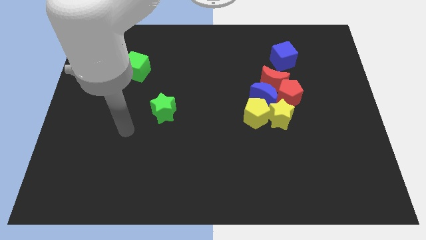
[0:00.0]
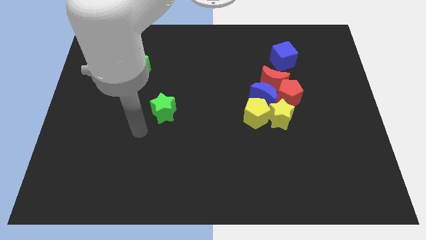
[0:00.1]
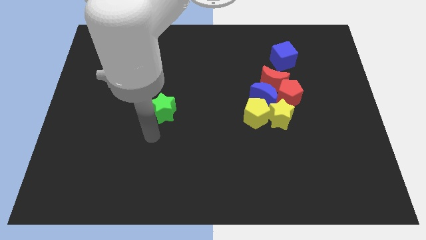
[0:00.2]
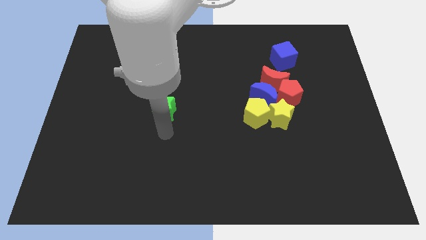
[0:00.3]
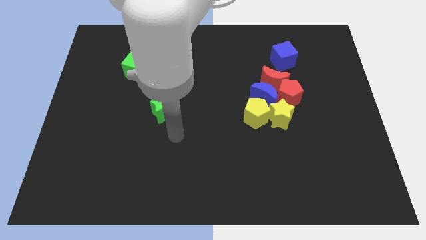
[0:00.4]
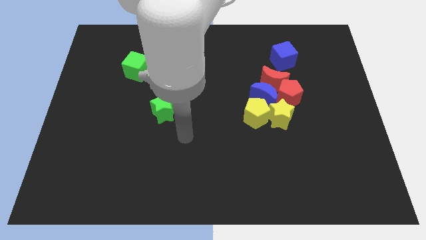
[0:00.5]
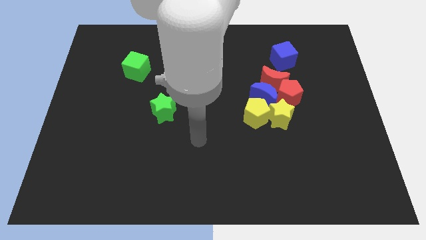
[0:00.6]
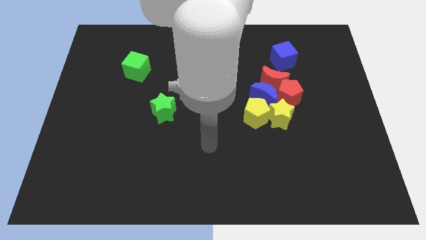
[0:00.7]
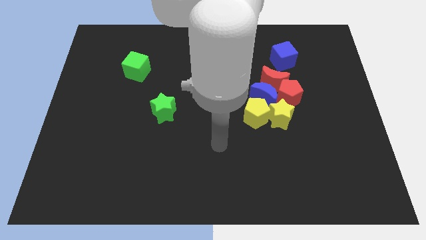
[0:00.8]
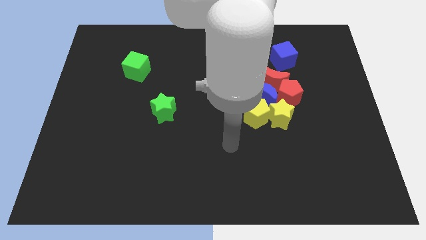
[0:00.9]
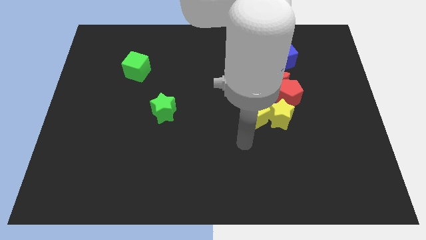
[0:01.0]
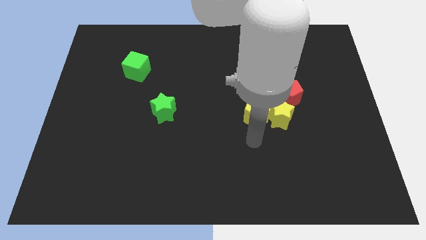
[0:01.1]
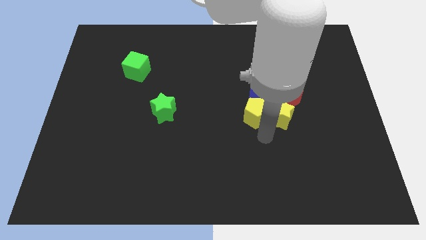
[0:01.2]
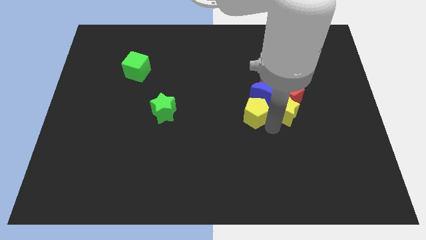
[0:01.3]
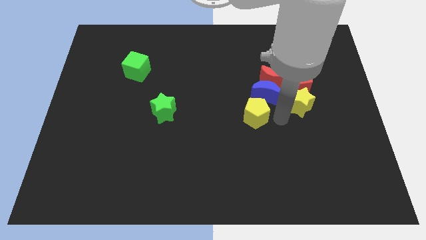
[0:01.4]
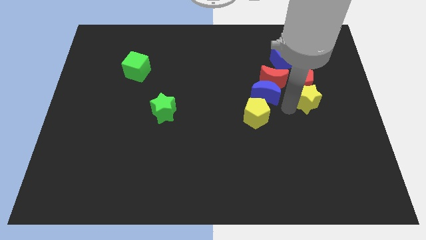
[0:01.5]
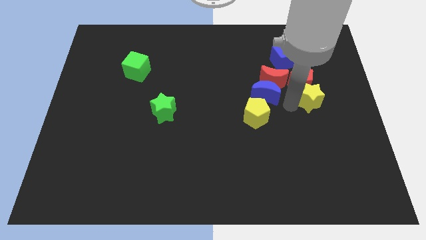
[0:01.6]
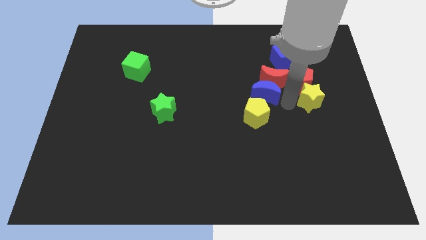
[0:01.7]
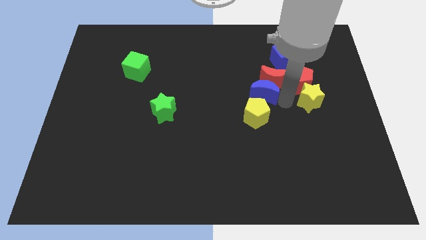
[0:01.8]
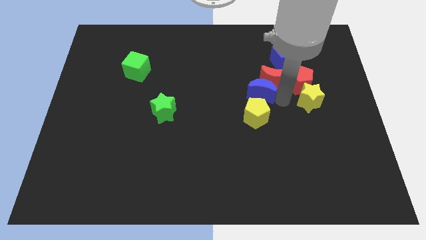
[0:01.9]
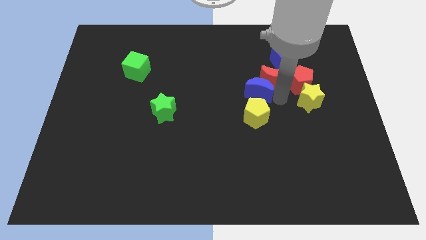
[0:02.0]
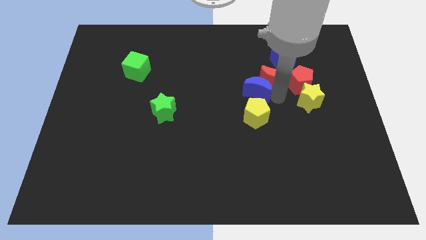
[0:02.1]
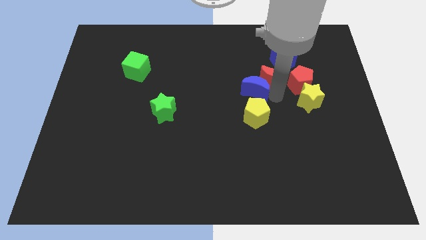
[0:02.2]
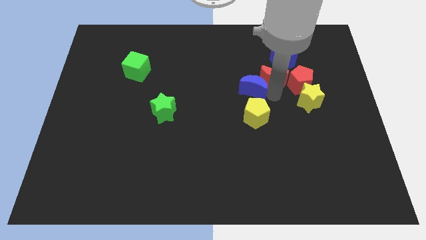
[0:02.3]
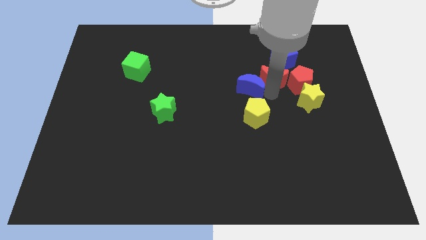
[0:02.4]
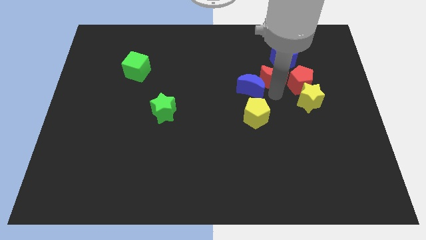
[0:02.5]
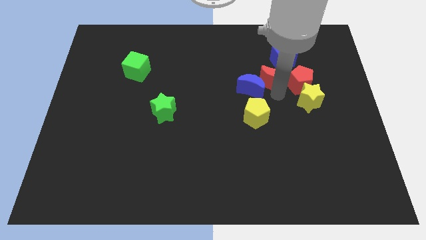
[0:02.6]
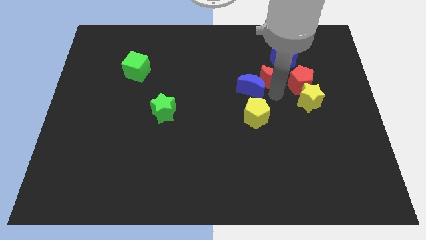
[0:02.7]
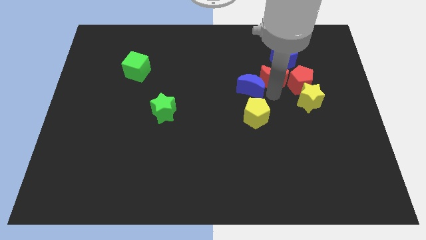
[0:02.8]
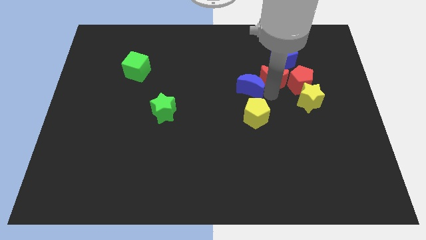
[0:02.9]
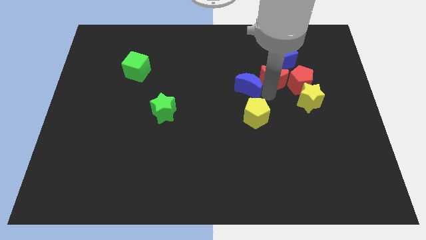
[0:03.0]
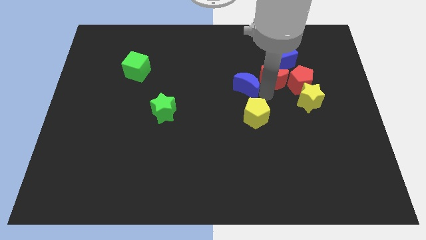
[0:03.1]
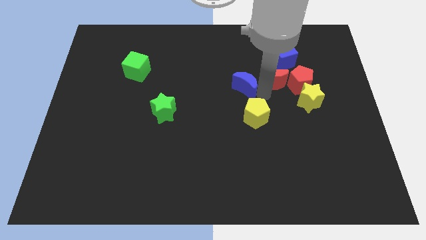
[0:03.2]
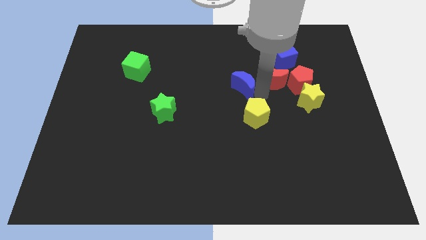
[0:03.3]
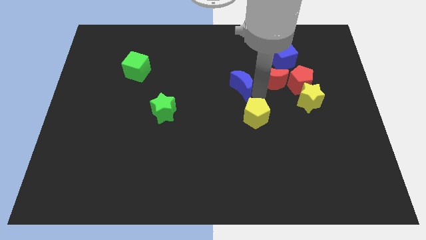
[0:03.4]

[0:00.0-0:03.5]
separate the blue moon from the clump

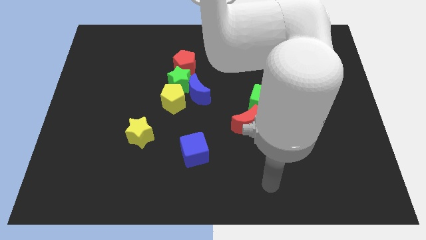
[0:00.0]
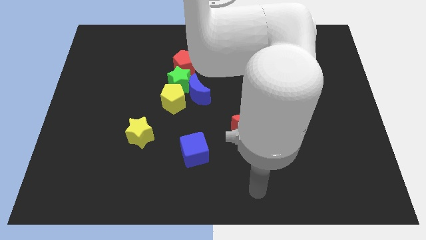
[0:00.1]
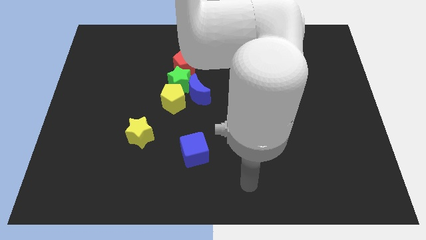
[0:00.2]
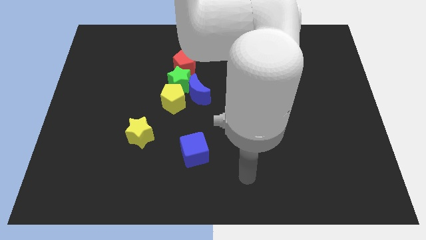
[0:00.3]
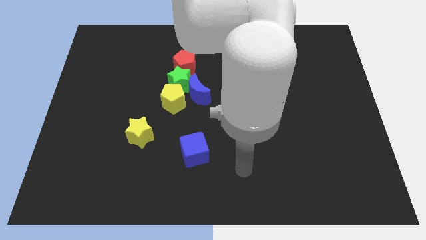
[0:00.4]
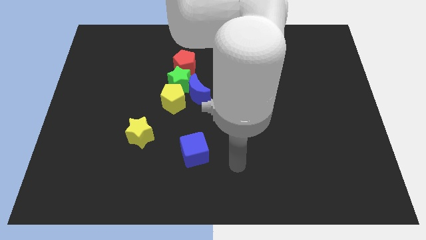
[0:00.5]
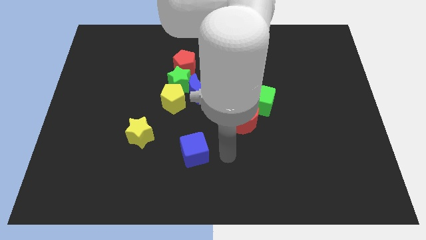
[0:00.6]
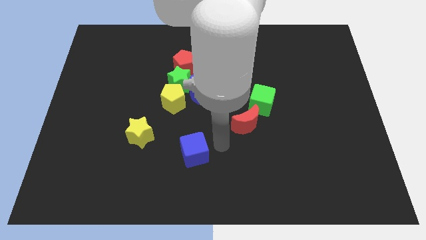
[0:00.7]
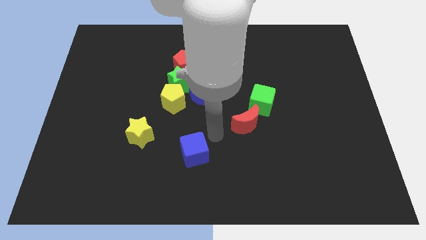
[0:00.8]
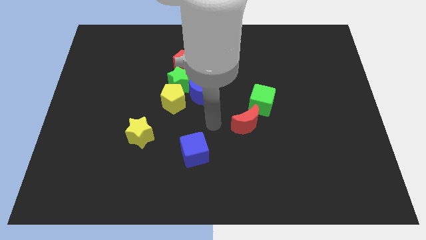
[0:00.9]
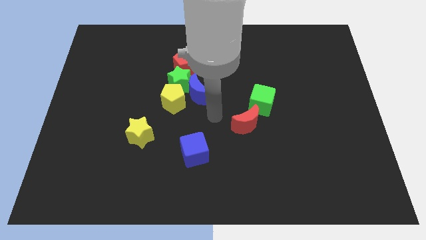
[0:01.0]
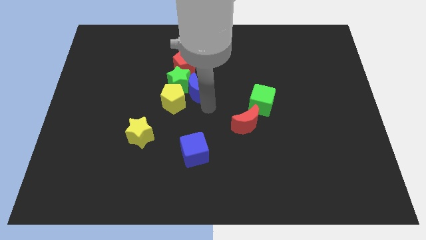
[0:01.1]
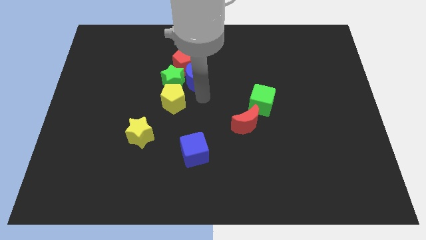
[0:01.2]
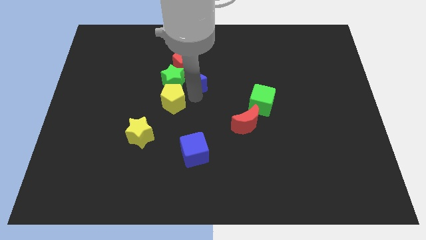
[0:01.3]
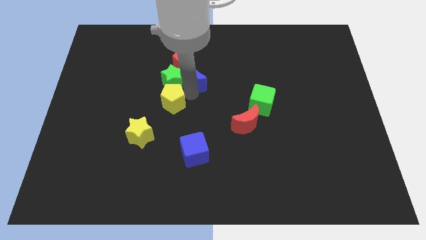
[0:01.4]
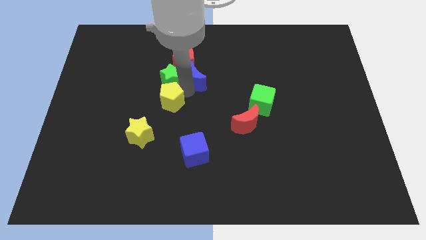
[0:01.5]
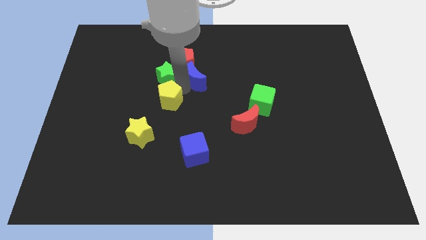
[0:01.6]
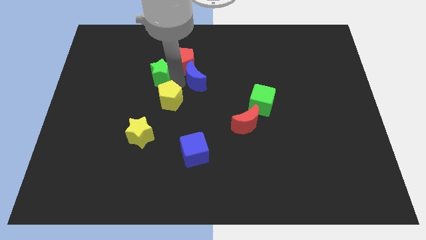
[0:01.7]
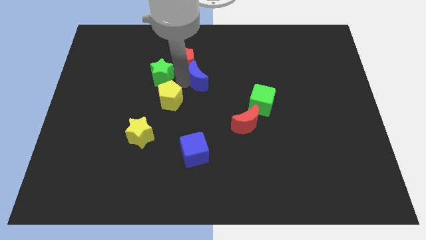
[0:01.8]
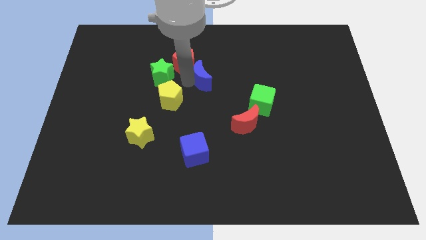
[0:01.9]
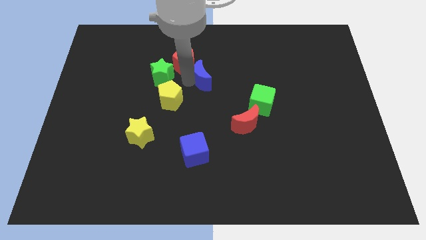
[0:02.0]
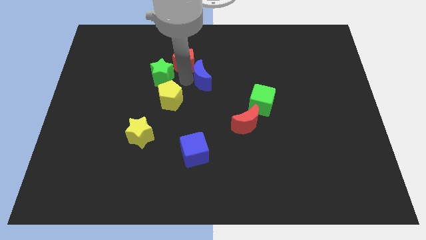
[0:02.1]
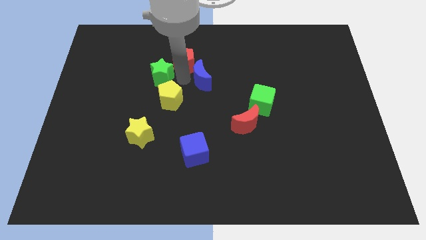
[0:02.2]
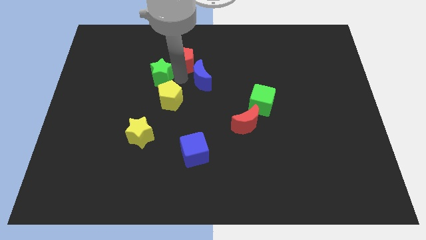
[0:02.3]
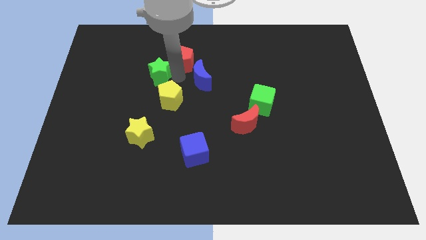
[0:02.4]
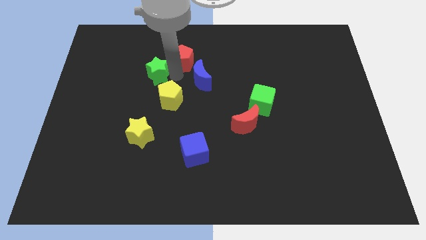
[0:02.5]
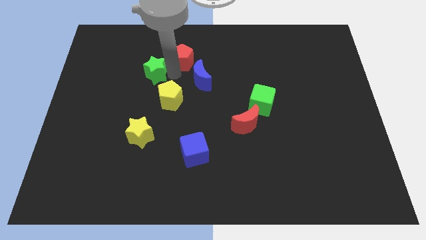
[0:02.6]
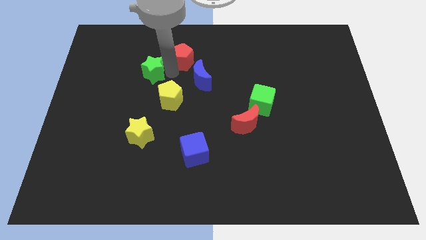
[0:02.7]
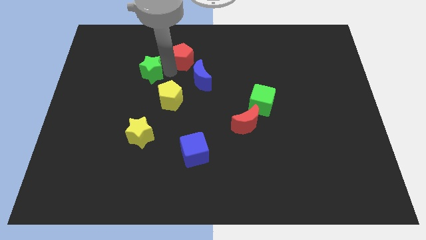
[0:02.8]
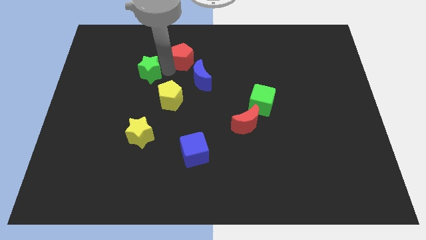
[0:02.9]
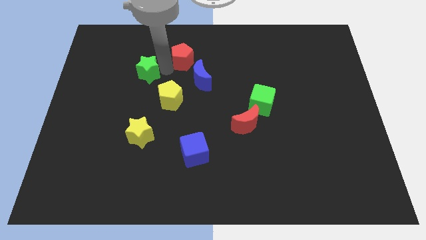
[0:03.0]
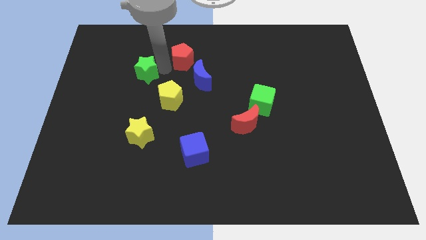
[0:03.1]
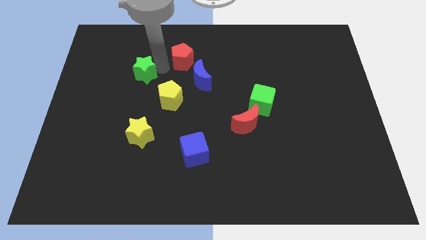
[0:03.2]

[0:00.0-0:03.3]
move the green star away from the blue moon, yellow pentagon, and red pentagon

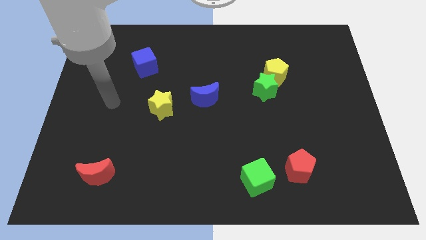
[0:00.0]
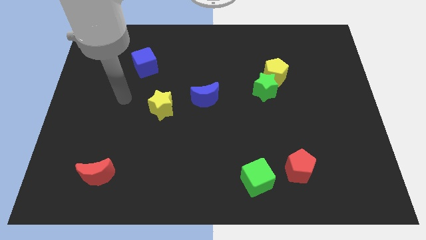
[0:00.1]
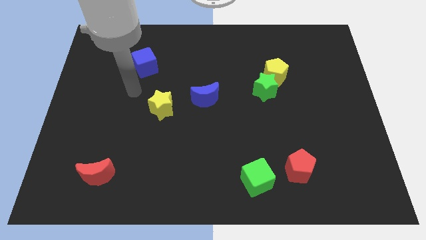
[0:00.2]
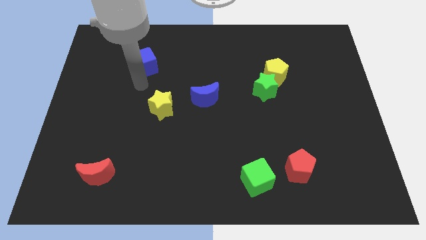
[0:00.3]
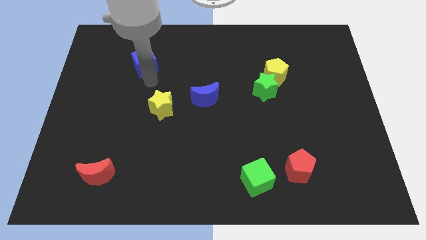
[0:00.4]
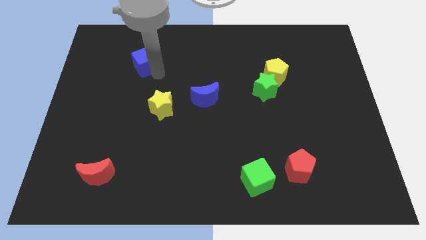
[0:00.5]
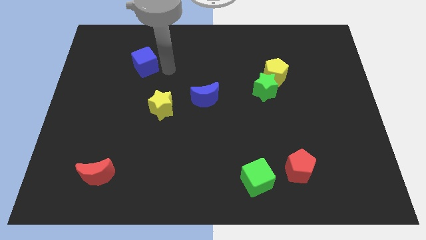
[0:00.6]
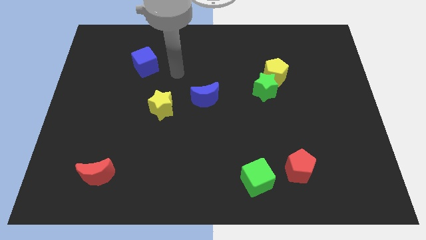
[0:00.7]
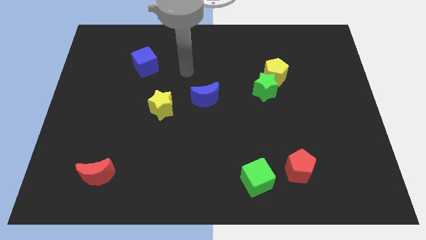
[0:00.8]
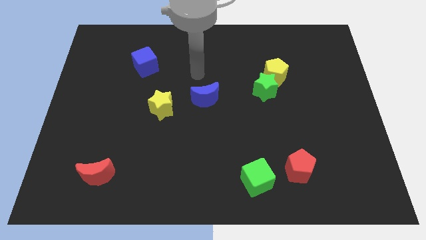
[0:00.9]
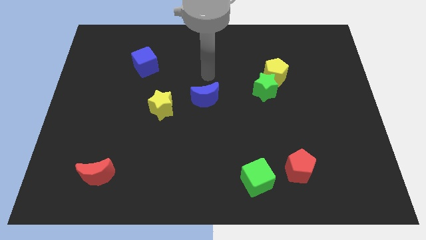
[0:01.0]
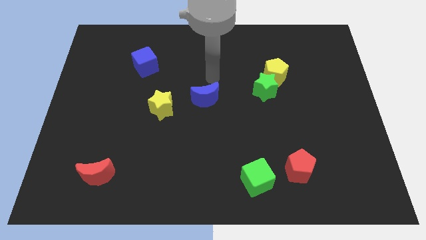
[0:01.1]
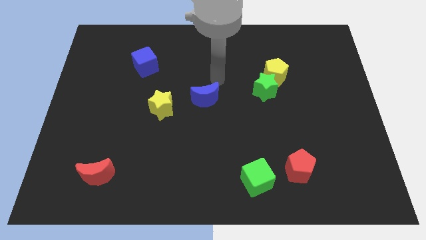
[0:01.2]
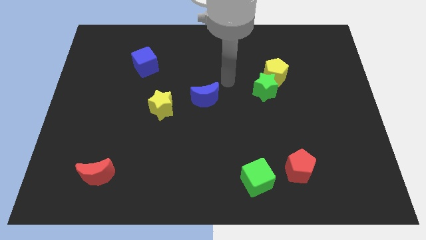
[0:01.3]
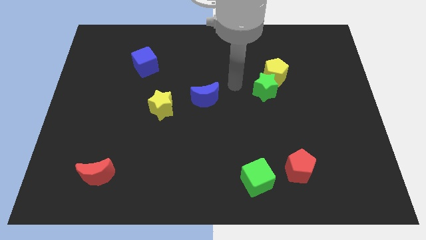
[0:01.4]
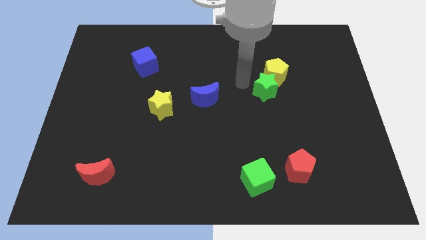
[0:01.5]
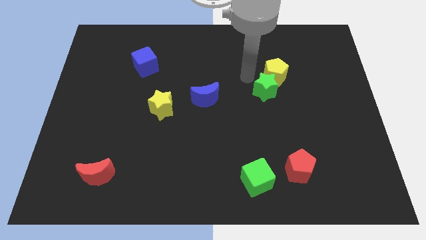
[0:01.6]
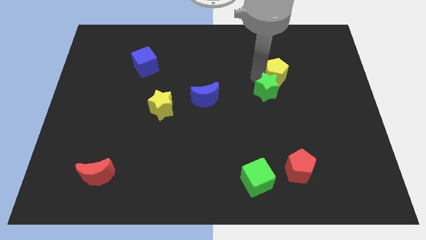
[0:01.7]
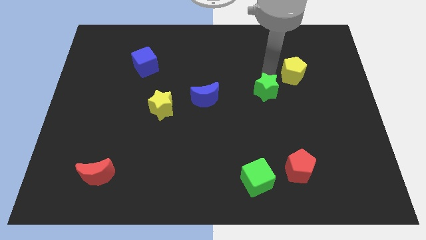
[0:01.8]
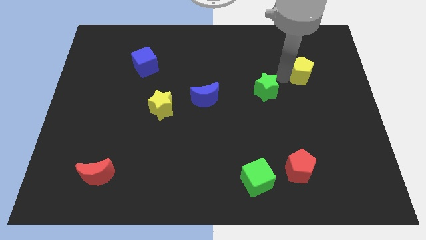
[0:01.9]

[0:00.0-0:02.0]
separate the green star from the yellow pentagon

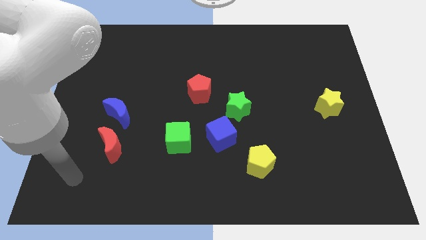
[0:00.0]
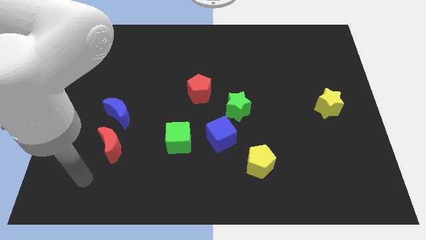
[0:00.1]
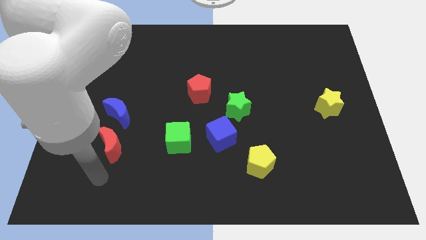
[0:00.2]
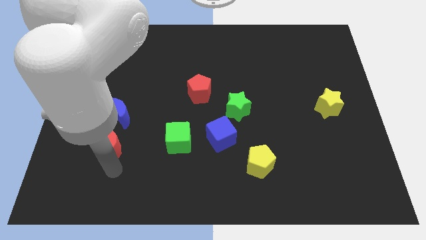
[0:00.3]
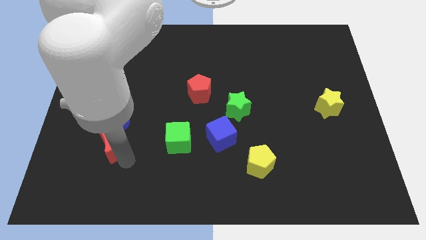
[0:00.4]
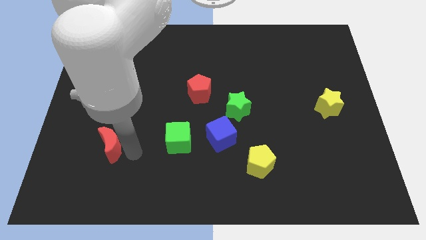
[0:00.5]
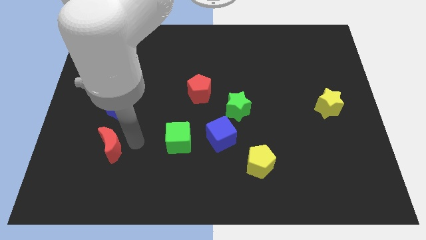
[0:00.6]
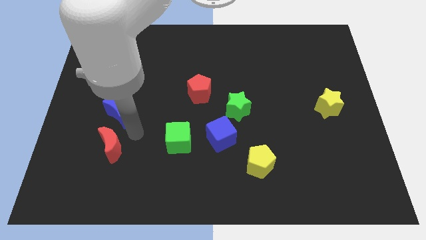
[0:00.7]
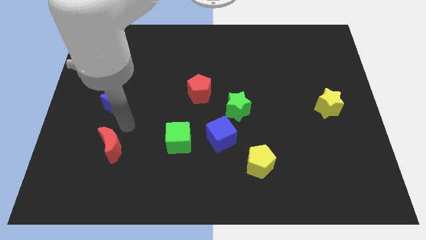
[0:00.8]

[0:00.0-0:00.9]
pull the red moon apart from the blue moon
